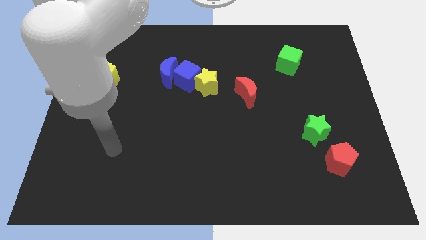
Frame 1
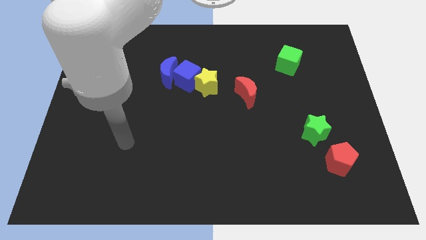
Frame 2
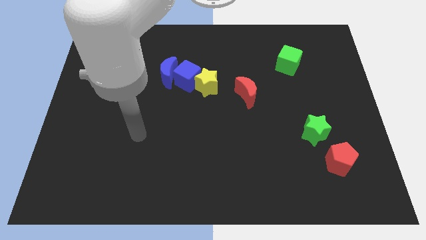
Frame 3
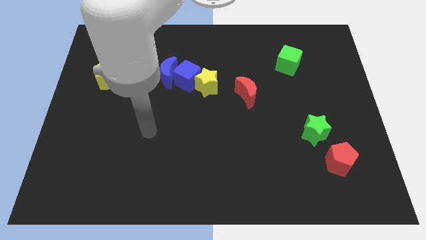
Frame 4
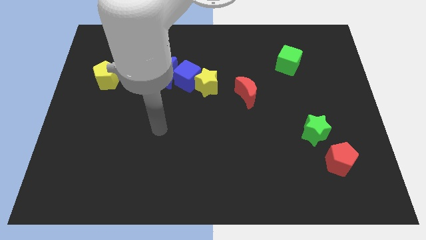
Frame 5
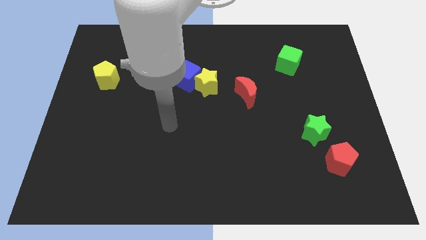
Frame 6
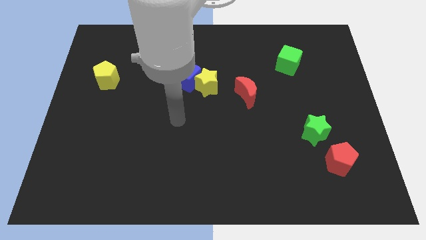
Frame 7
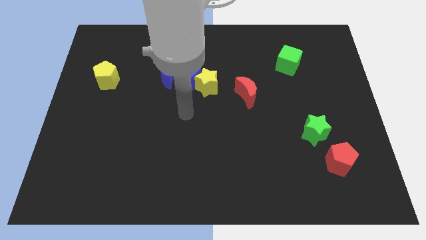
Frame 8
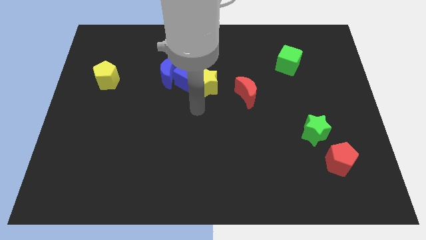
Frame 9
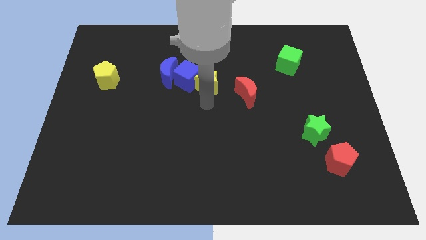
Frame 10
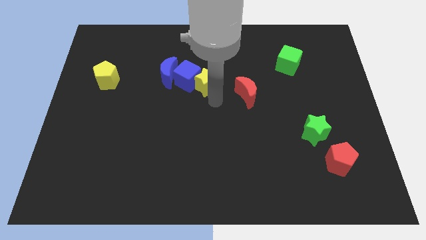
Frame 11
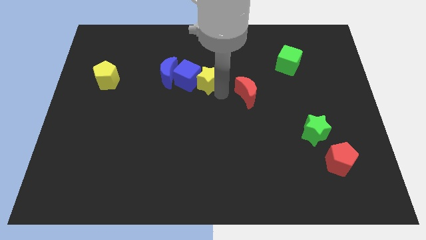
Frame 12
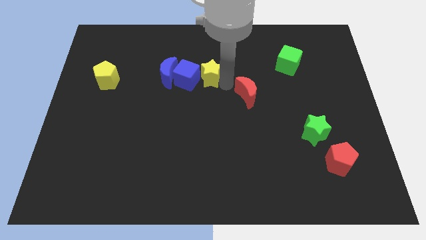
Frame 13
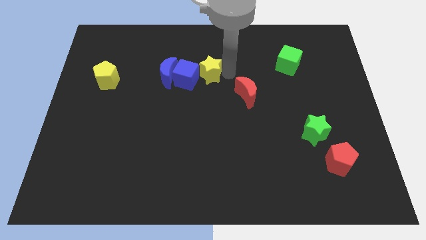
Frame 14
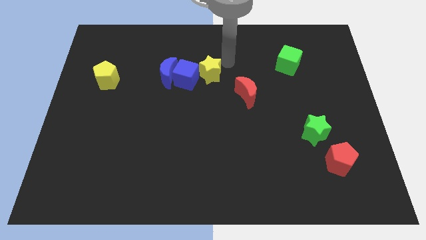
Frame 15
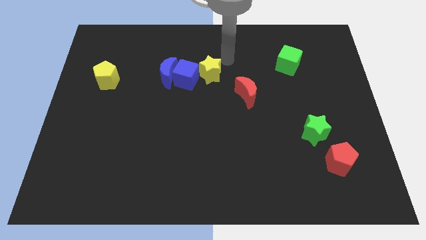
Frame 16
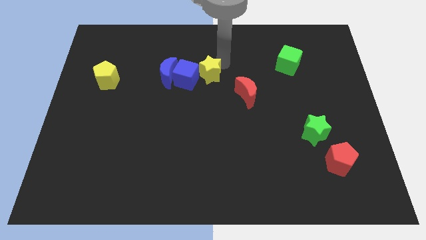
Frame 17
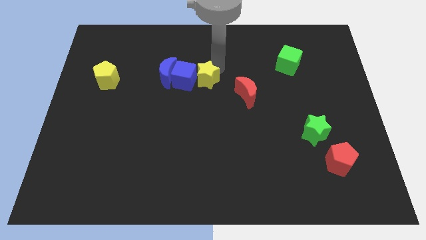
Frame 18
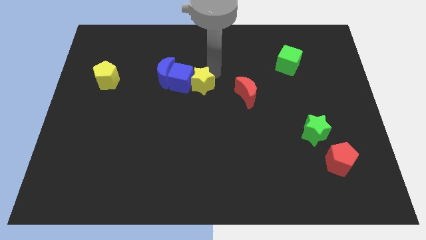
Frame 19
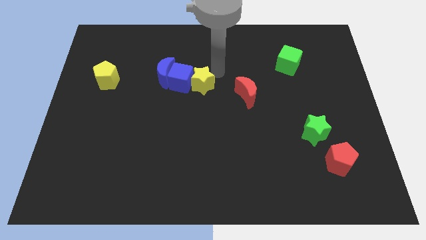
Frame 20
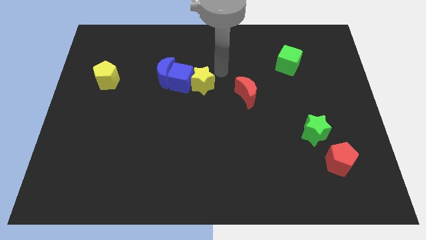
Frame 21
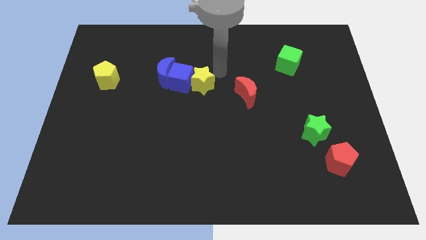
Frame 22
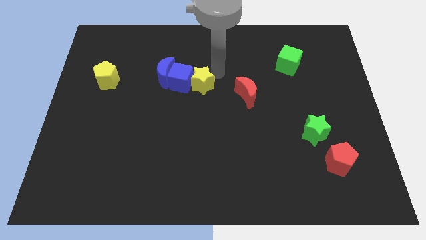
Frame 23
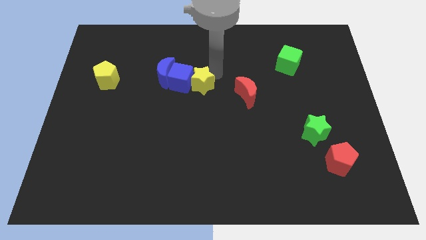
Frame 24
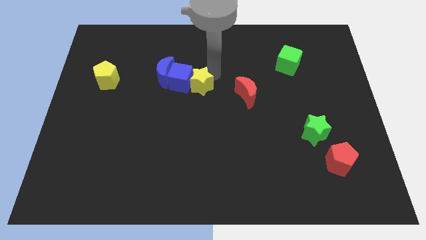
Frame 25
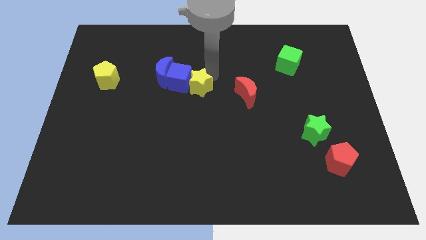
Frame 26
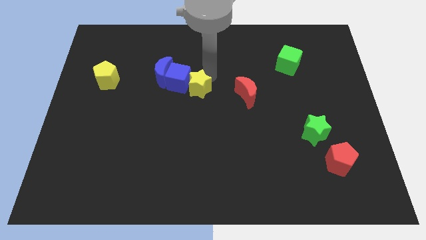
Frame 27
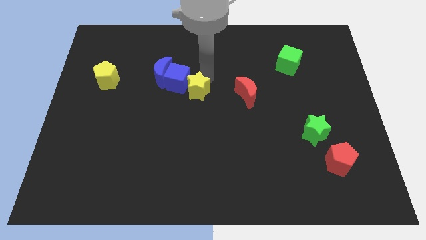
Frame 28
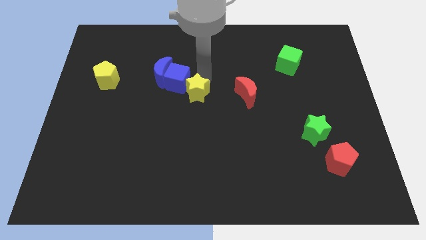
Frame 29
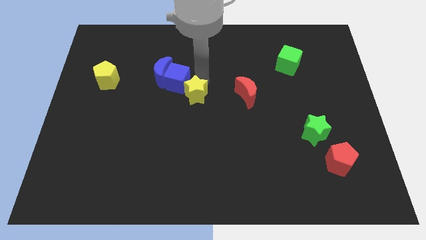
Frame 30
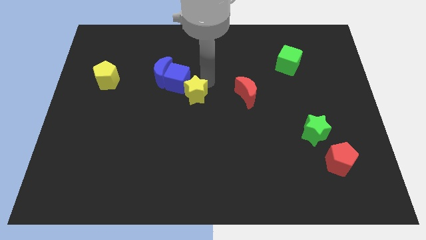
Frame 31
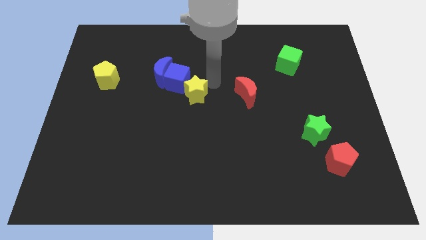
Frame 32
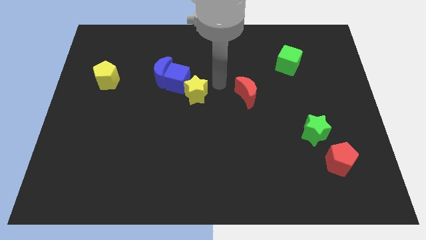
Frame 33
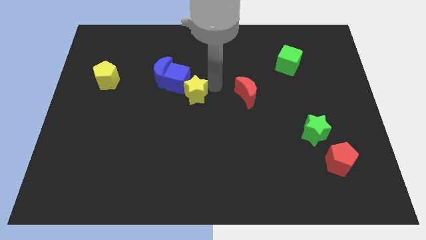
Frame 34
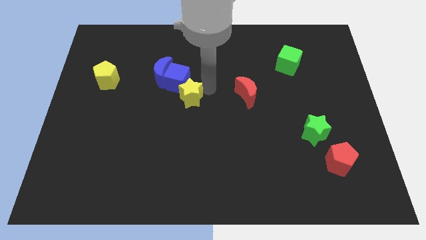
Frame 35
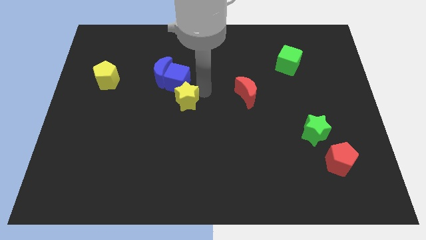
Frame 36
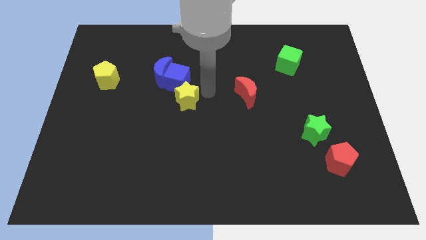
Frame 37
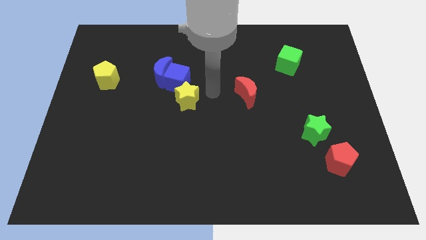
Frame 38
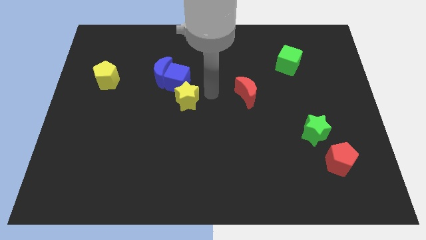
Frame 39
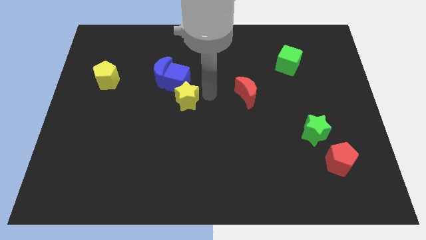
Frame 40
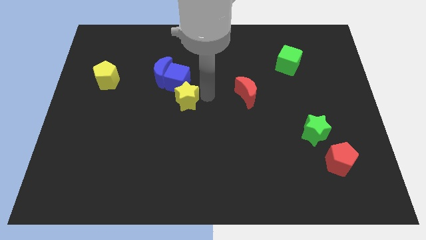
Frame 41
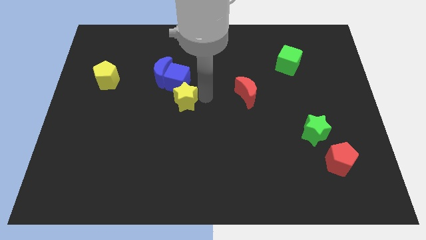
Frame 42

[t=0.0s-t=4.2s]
slightly push the yellow star down and to the left diagonally

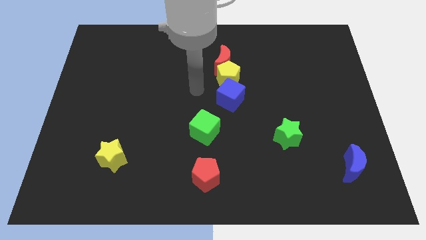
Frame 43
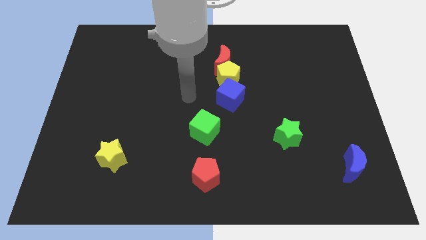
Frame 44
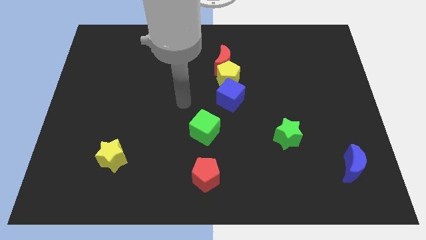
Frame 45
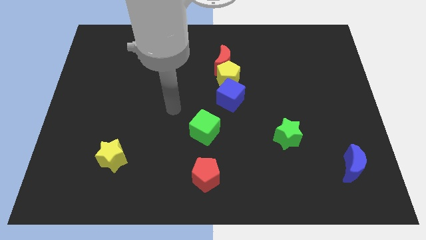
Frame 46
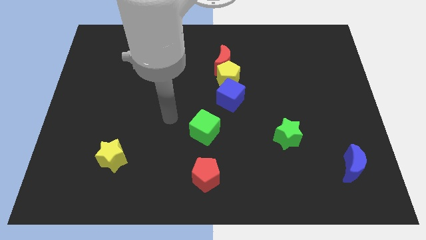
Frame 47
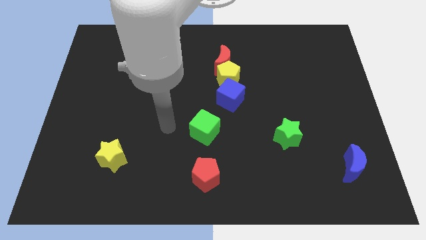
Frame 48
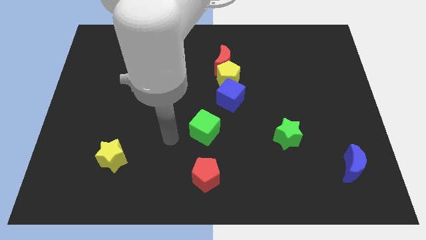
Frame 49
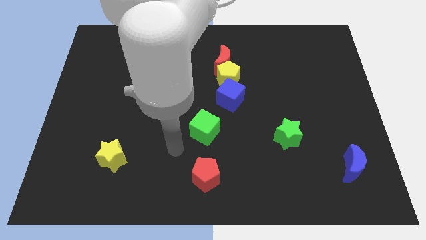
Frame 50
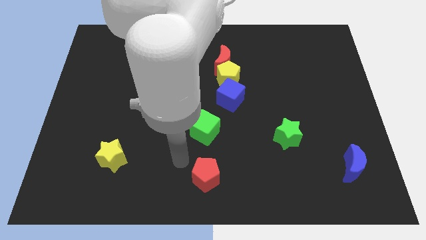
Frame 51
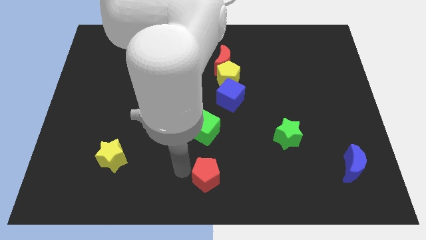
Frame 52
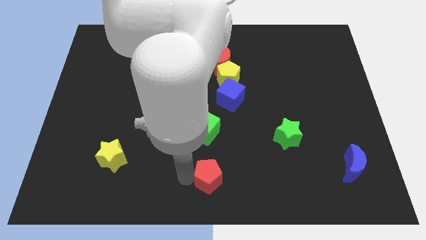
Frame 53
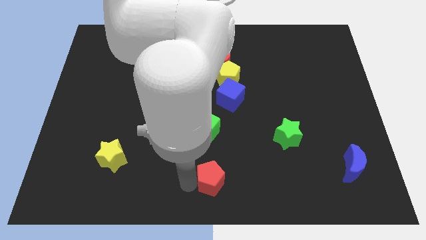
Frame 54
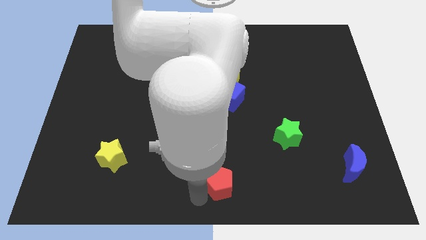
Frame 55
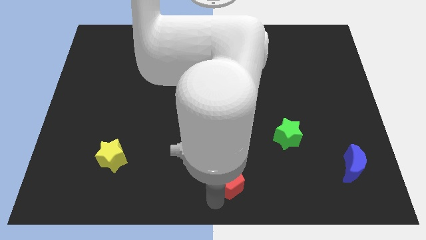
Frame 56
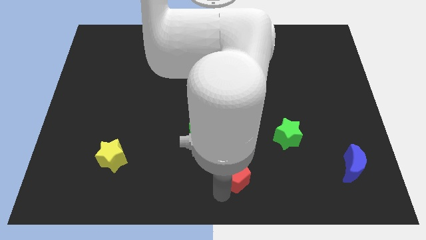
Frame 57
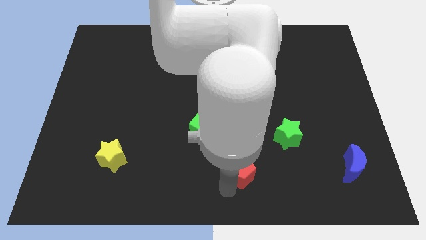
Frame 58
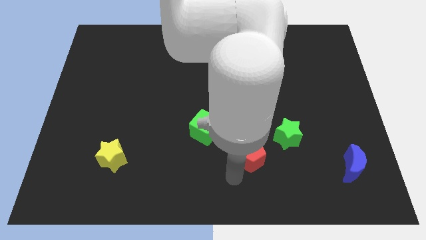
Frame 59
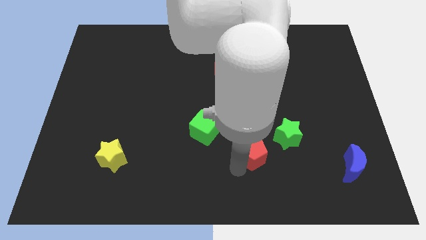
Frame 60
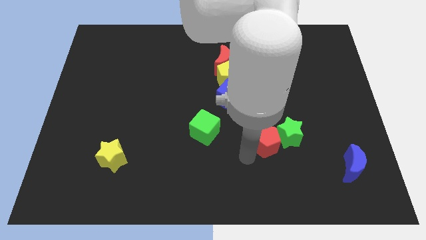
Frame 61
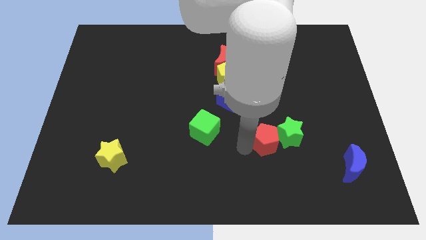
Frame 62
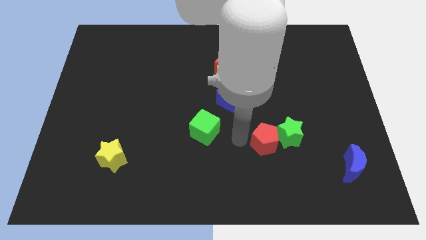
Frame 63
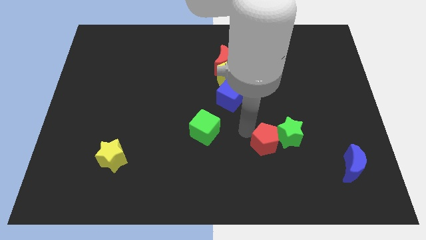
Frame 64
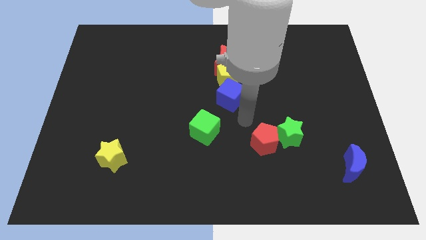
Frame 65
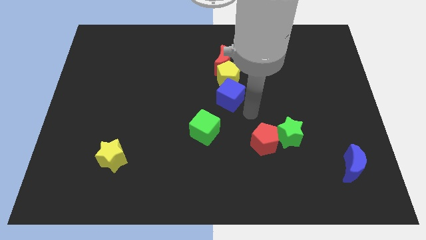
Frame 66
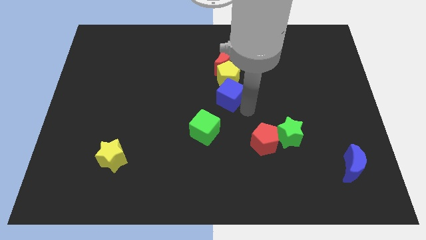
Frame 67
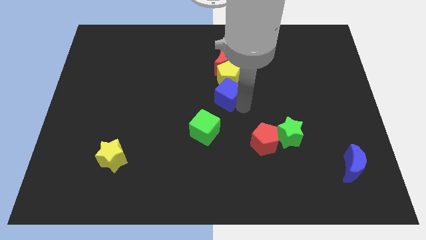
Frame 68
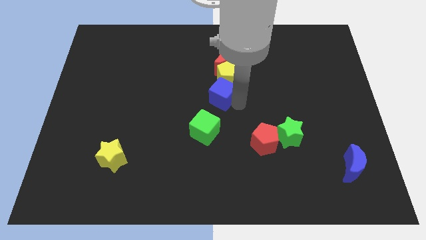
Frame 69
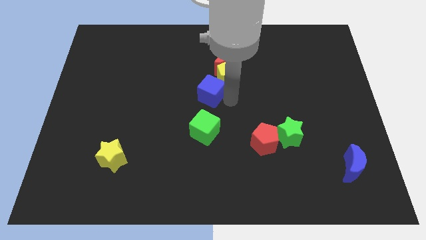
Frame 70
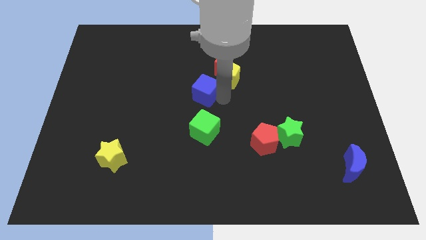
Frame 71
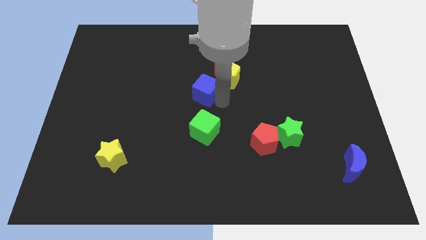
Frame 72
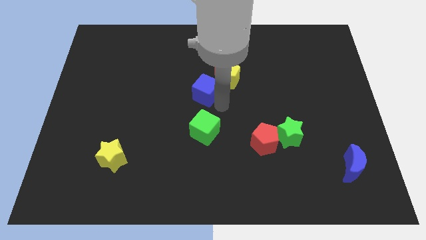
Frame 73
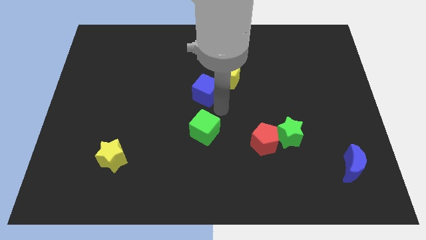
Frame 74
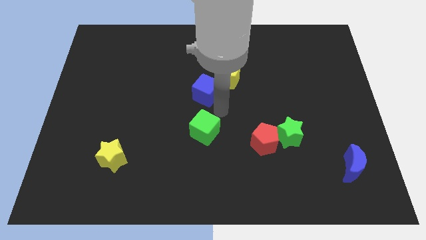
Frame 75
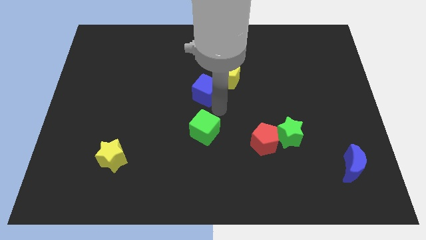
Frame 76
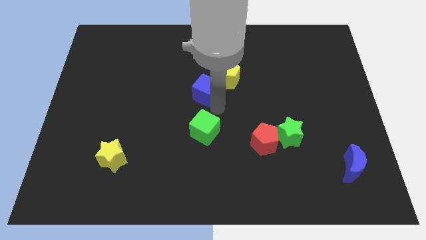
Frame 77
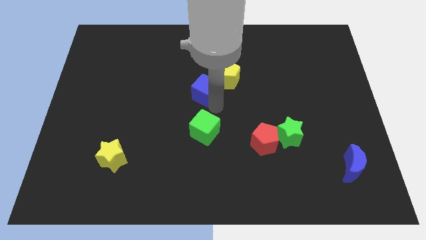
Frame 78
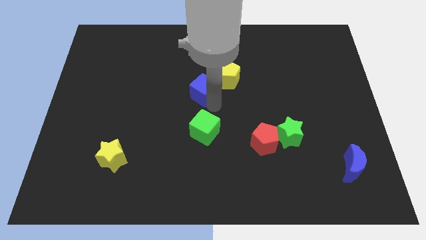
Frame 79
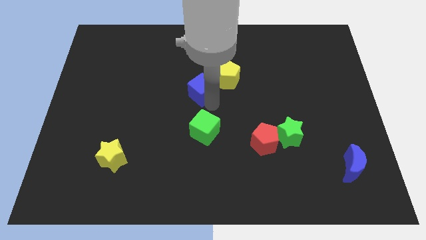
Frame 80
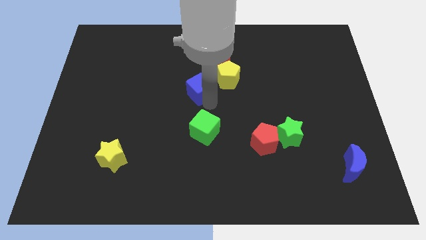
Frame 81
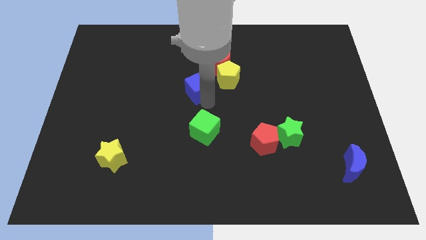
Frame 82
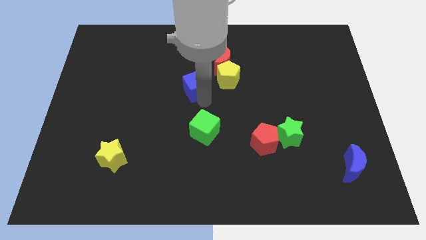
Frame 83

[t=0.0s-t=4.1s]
move the blue cube upwards and to the left diagonally slightly

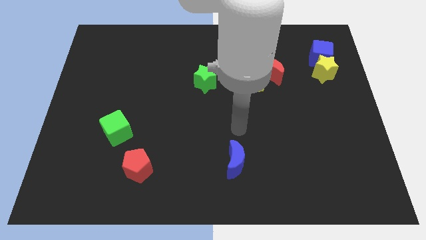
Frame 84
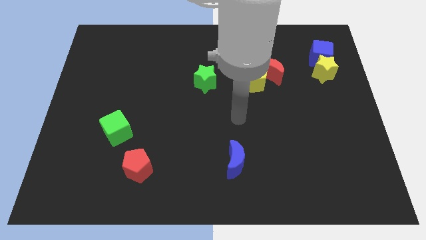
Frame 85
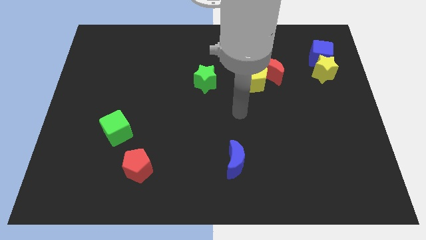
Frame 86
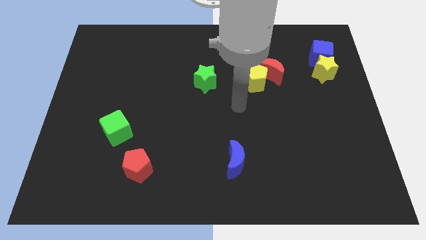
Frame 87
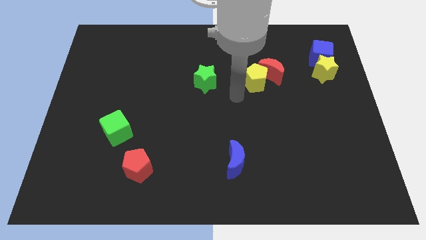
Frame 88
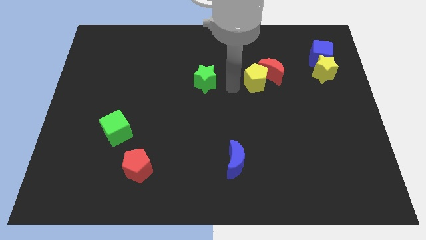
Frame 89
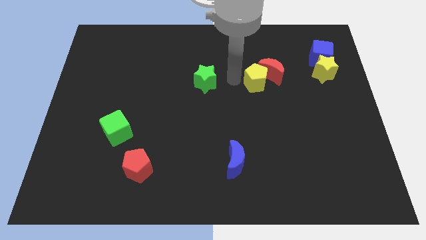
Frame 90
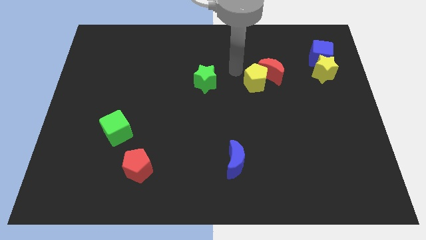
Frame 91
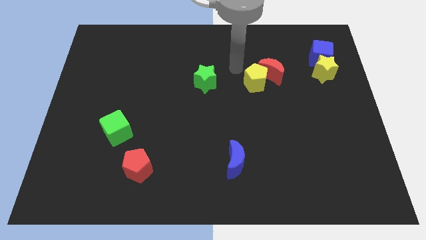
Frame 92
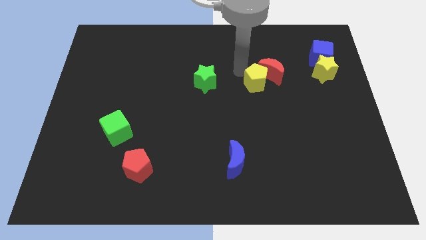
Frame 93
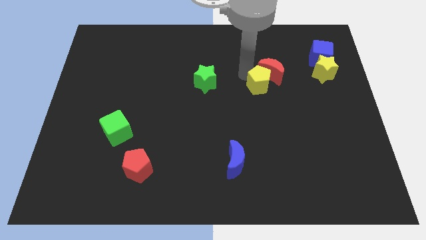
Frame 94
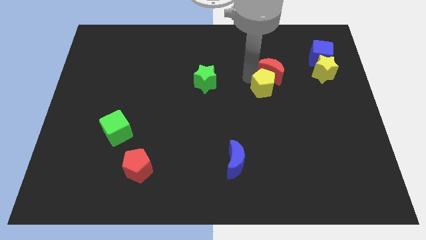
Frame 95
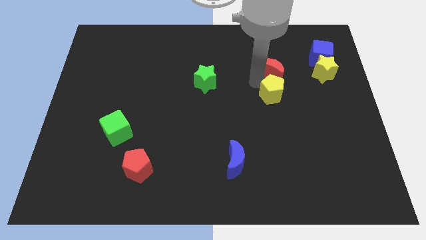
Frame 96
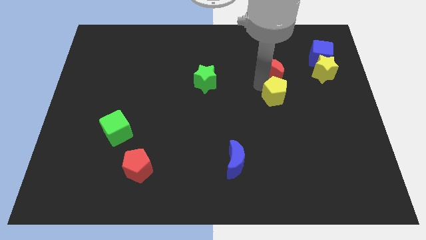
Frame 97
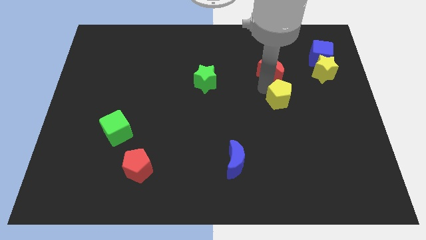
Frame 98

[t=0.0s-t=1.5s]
slide the yellow pentagon down and to the right diagonally somewhat
